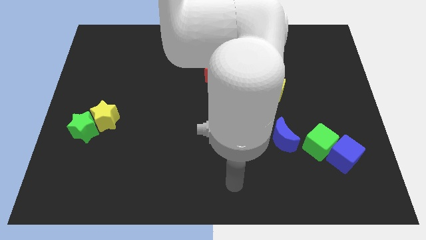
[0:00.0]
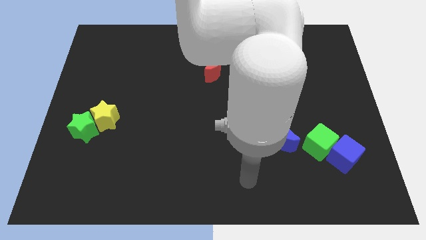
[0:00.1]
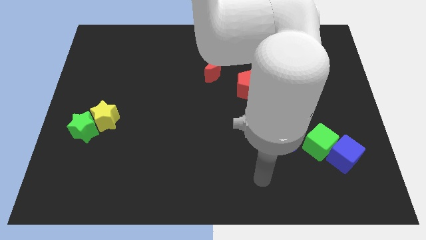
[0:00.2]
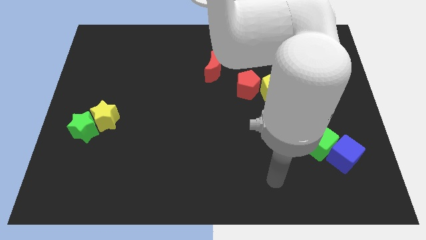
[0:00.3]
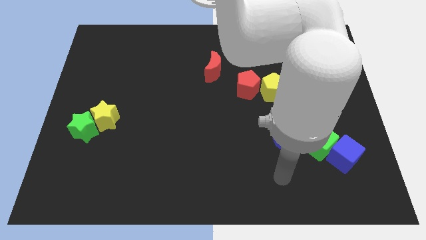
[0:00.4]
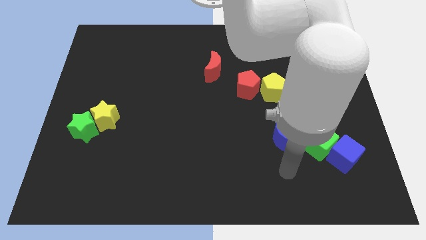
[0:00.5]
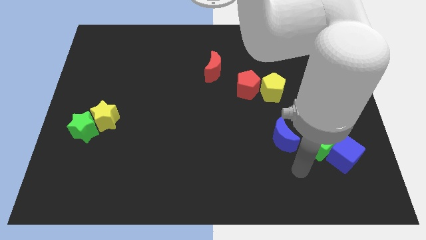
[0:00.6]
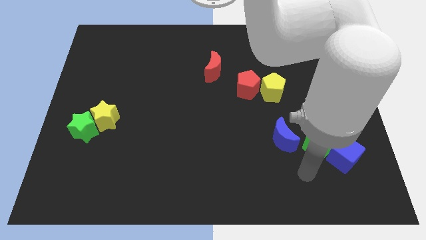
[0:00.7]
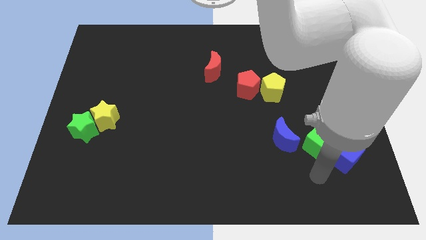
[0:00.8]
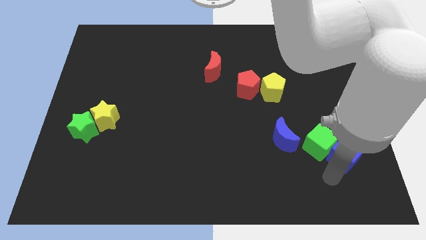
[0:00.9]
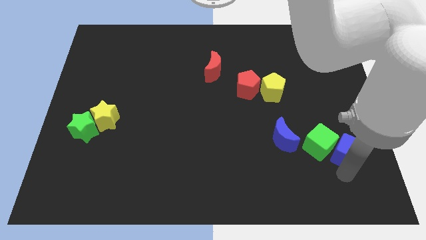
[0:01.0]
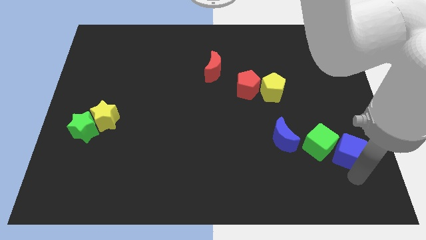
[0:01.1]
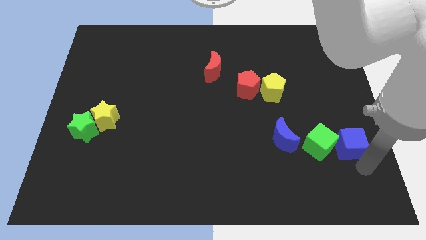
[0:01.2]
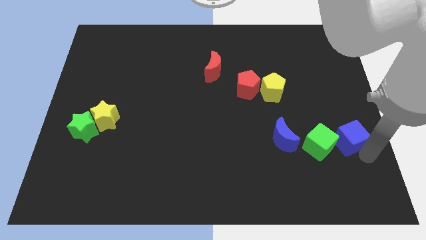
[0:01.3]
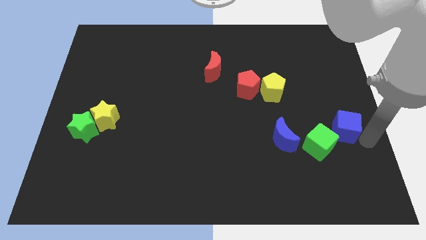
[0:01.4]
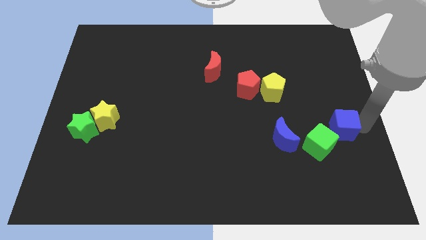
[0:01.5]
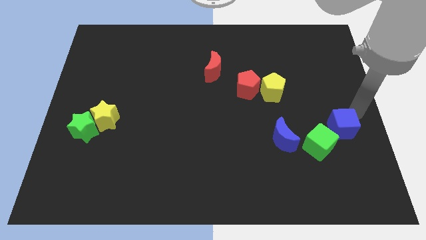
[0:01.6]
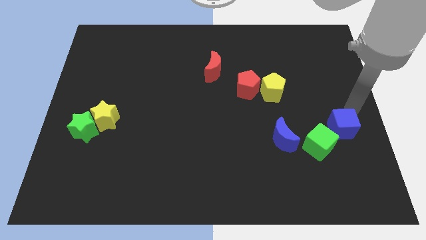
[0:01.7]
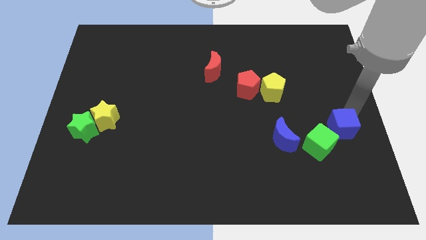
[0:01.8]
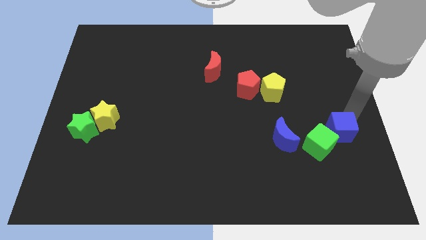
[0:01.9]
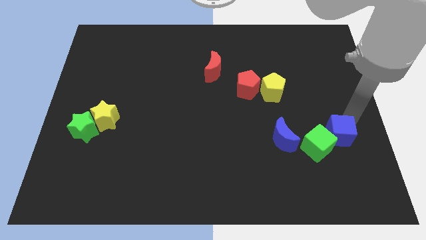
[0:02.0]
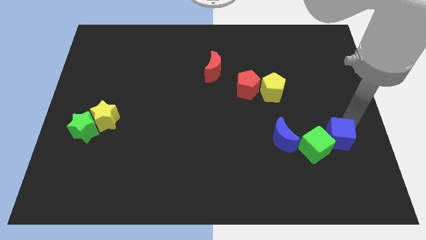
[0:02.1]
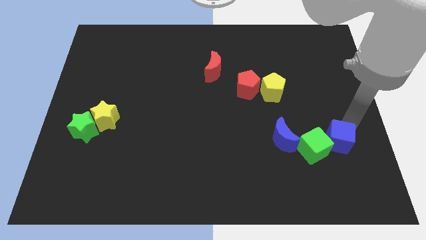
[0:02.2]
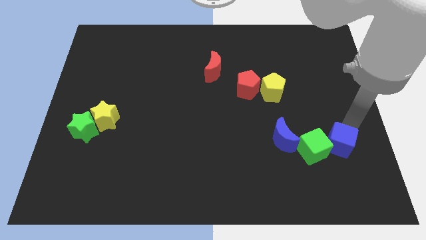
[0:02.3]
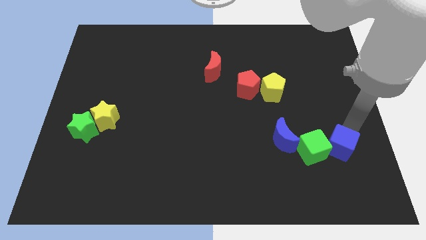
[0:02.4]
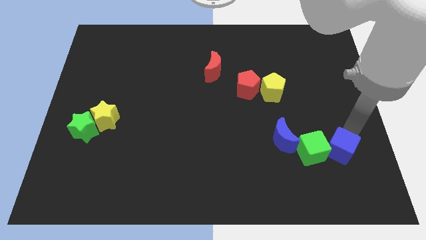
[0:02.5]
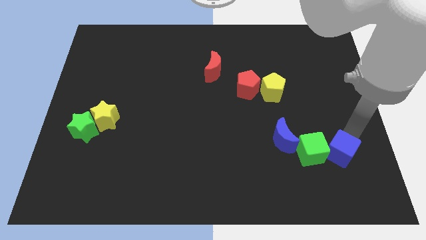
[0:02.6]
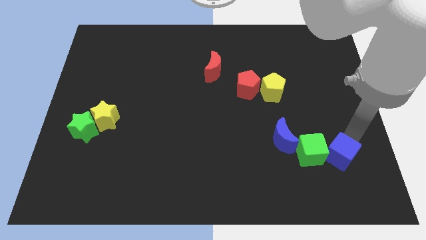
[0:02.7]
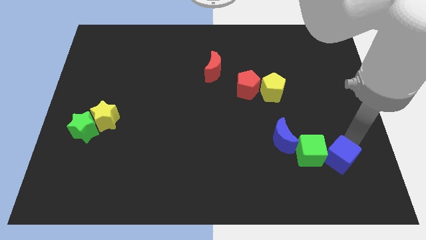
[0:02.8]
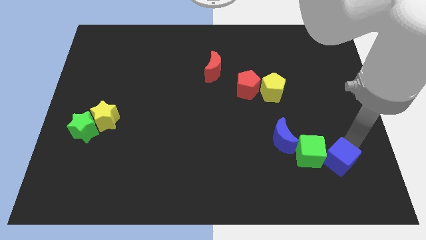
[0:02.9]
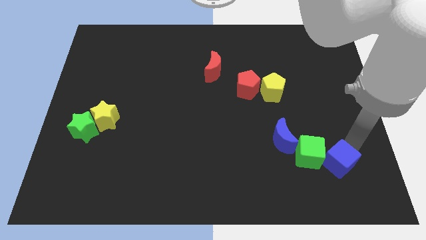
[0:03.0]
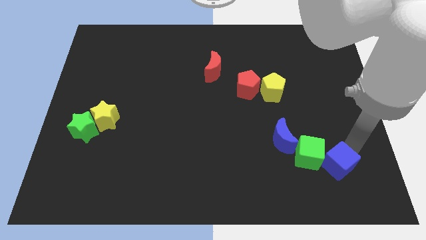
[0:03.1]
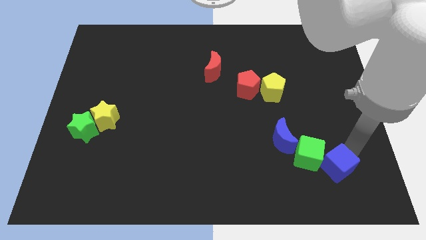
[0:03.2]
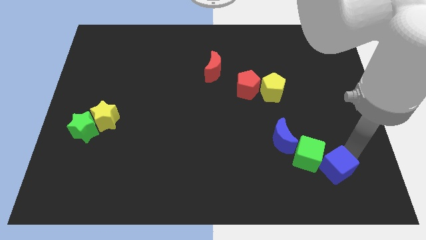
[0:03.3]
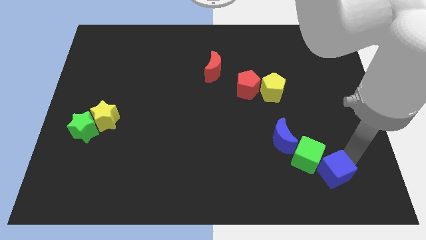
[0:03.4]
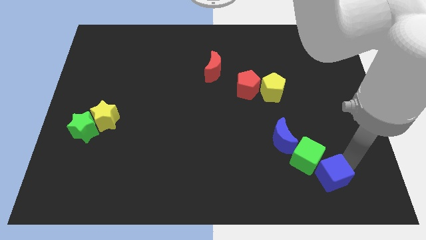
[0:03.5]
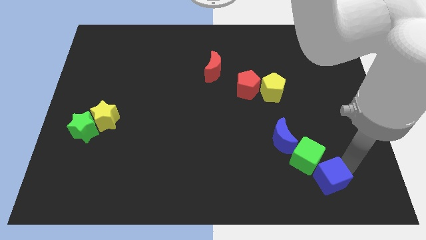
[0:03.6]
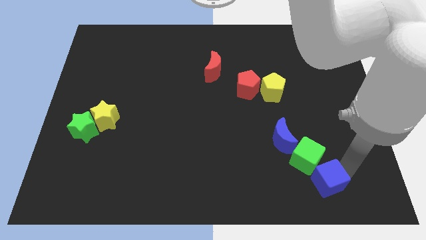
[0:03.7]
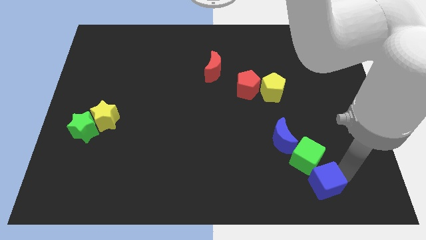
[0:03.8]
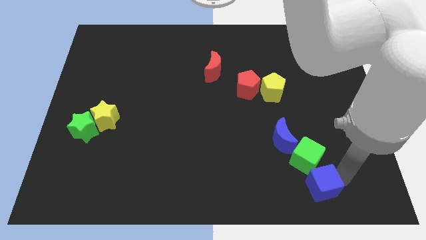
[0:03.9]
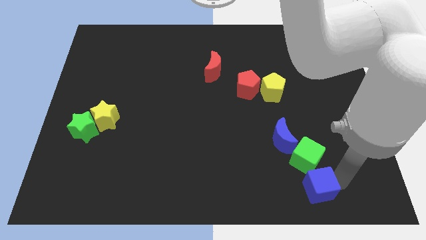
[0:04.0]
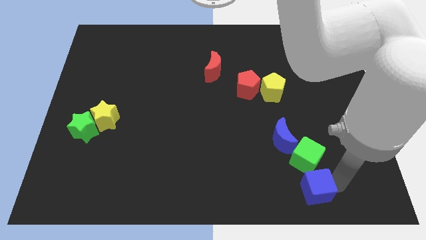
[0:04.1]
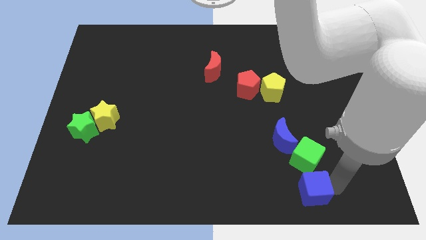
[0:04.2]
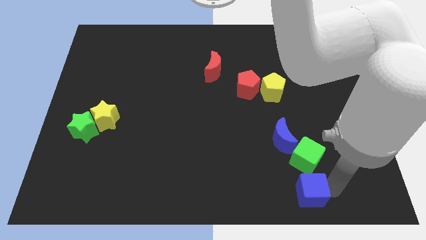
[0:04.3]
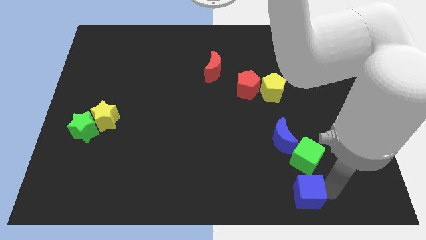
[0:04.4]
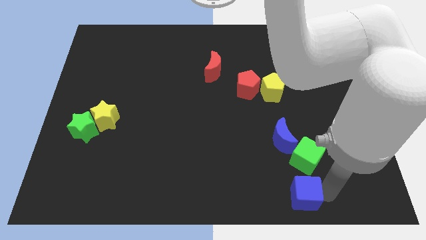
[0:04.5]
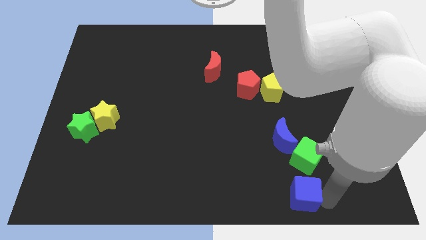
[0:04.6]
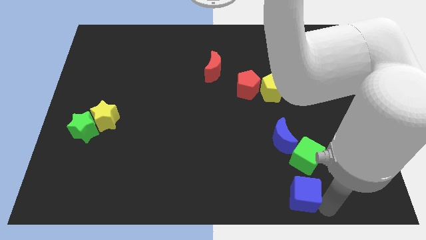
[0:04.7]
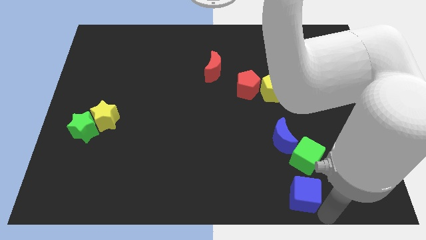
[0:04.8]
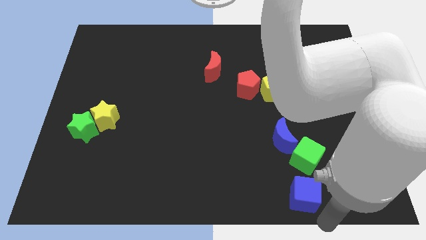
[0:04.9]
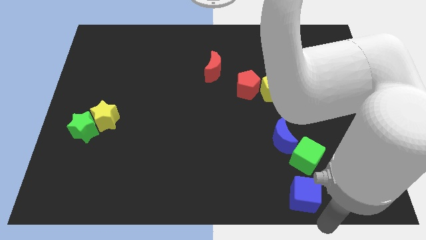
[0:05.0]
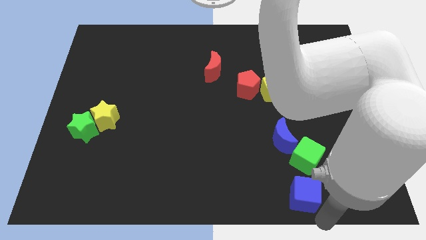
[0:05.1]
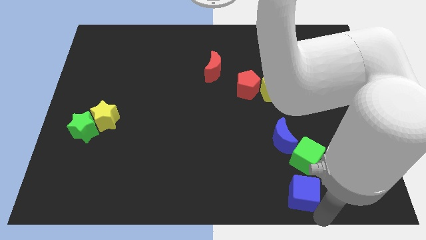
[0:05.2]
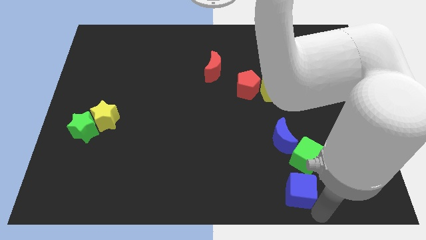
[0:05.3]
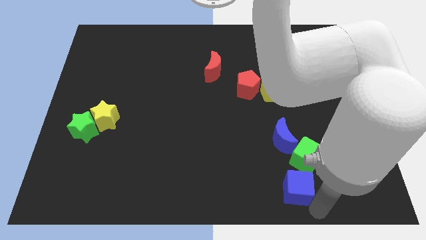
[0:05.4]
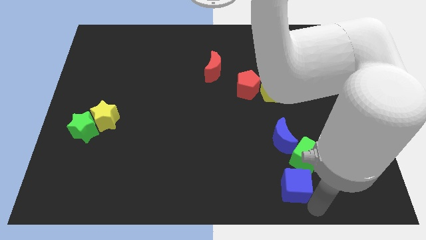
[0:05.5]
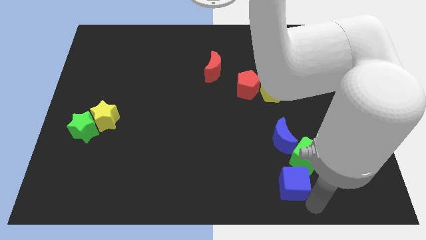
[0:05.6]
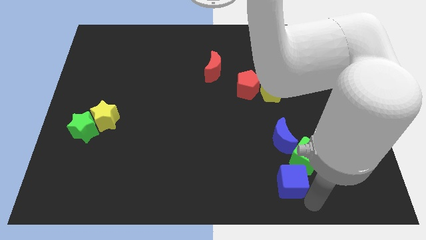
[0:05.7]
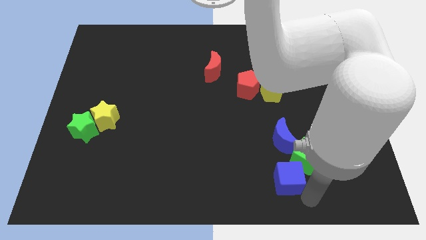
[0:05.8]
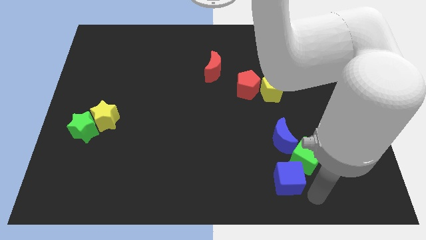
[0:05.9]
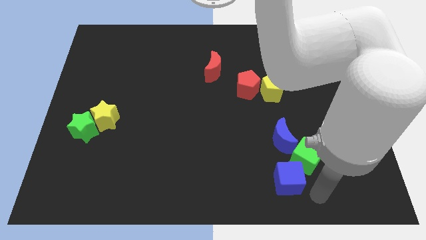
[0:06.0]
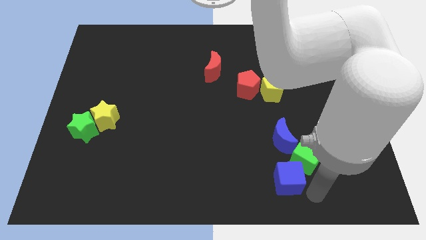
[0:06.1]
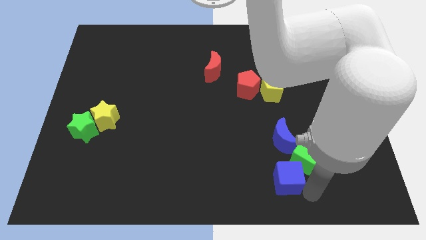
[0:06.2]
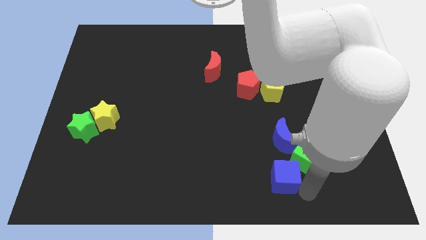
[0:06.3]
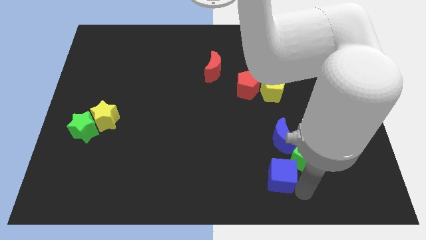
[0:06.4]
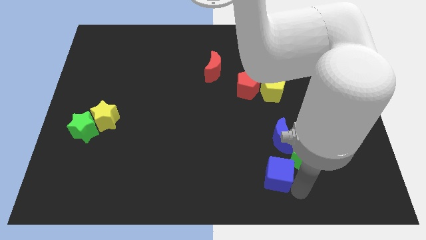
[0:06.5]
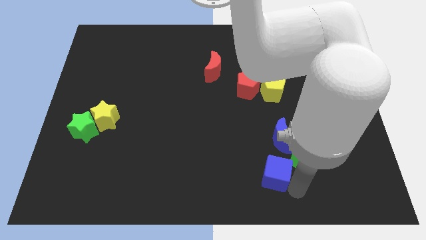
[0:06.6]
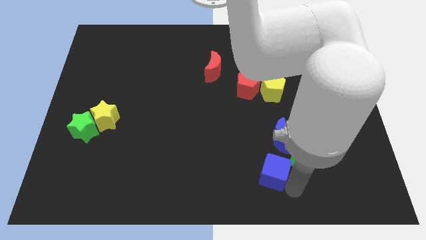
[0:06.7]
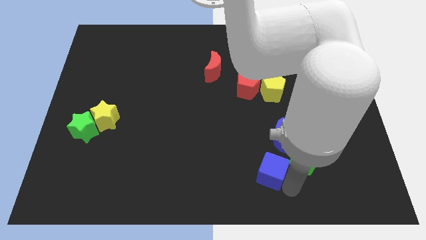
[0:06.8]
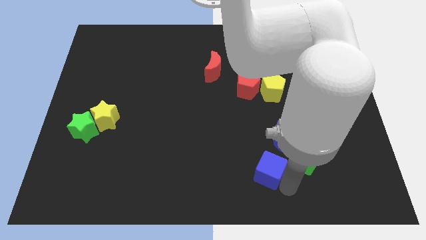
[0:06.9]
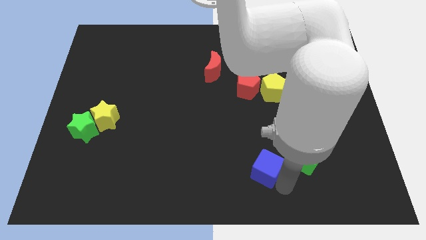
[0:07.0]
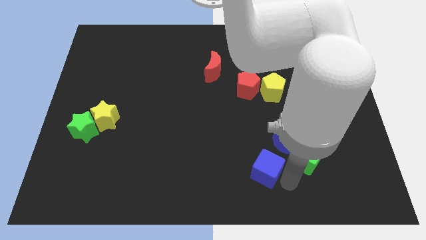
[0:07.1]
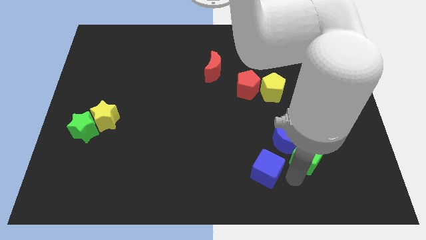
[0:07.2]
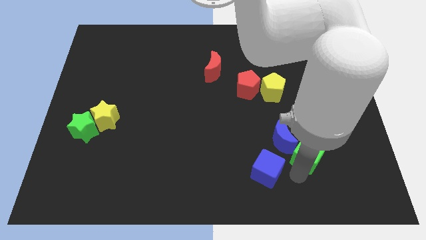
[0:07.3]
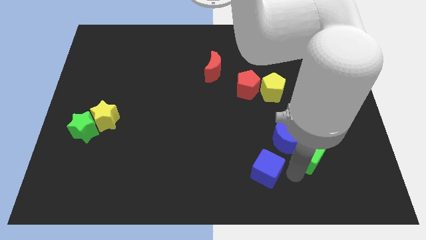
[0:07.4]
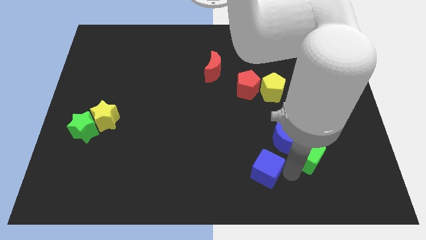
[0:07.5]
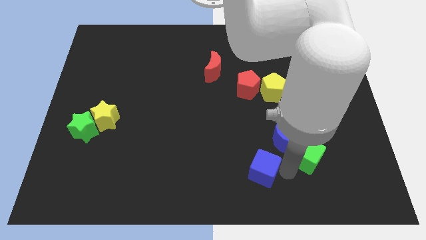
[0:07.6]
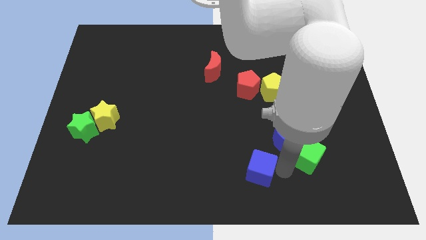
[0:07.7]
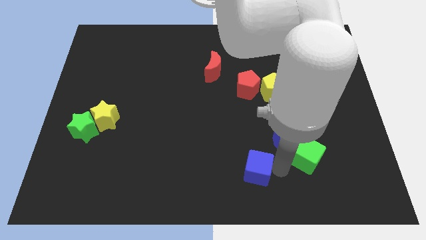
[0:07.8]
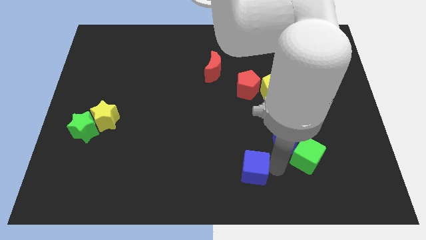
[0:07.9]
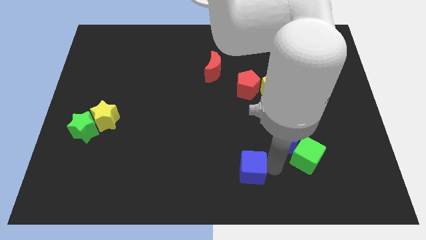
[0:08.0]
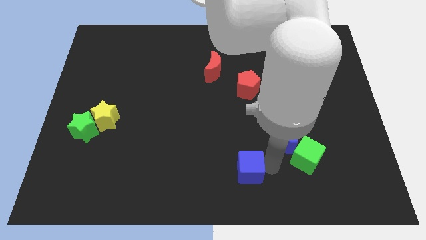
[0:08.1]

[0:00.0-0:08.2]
push the blue cube left
